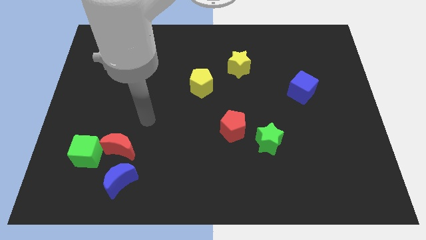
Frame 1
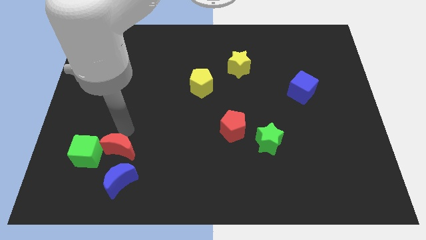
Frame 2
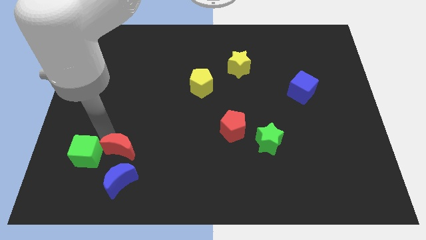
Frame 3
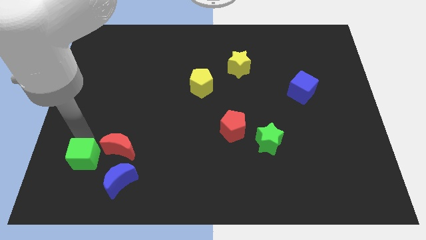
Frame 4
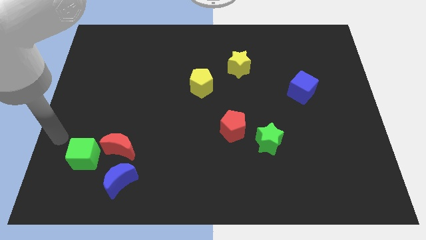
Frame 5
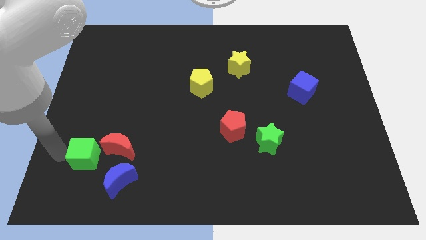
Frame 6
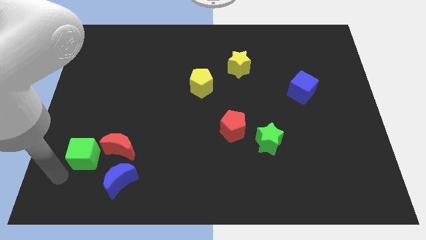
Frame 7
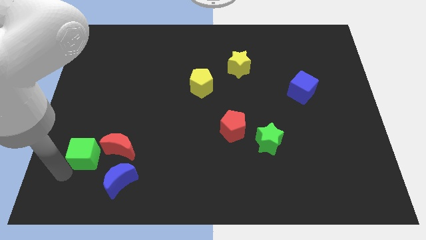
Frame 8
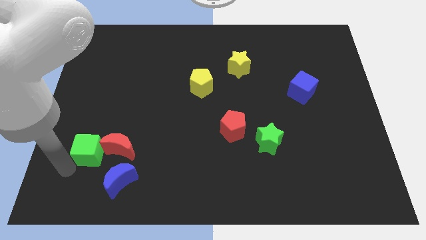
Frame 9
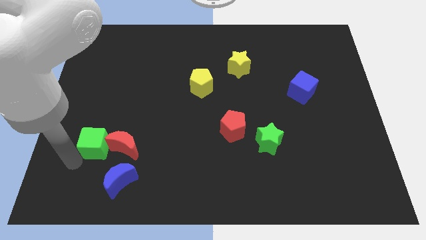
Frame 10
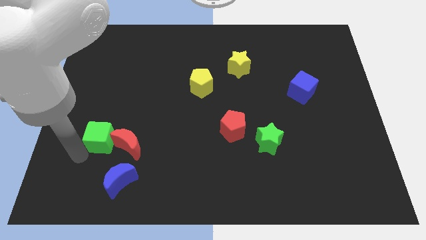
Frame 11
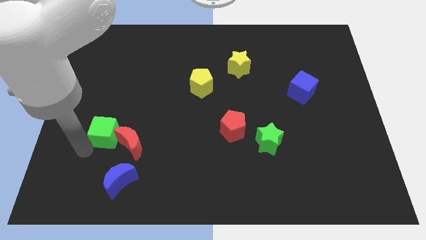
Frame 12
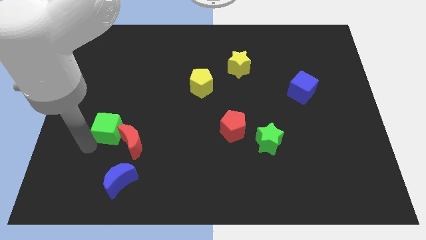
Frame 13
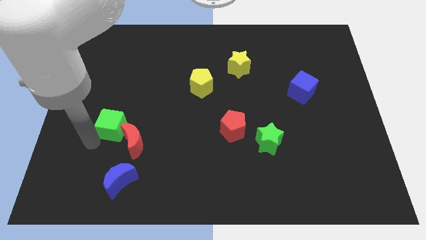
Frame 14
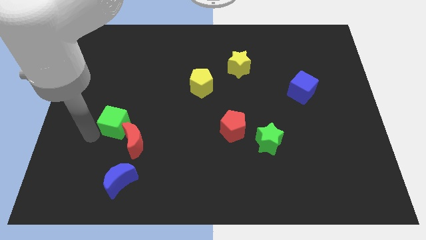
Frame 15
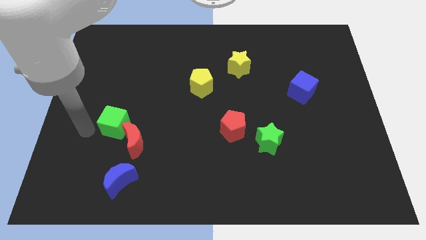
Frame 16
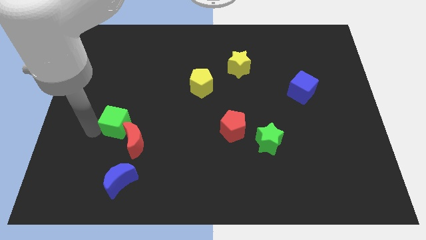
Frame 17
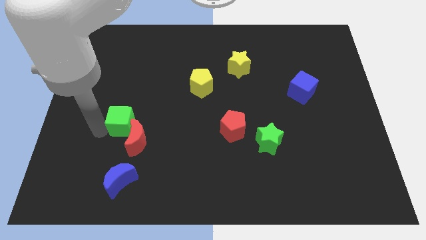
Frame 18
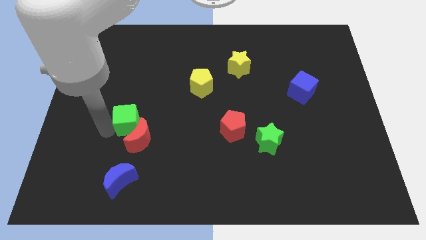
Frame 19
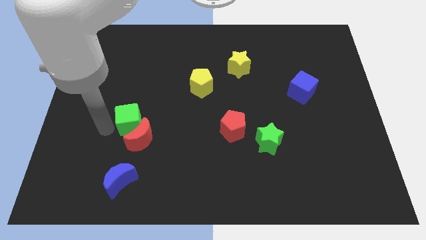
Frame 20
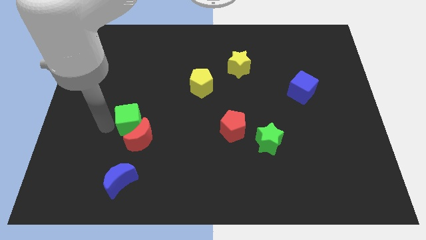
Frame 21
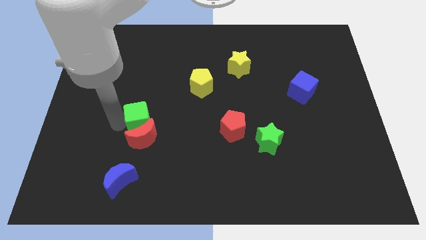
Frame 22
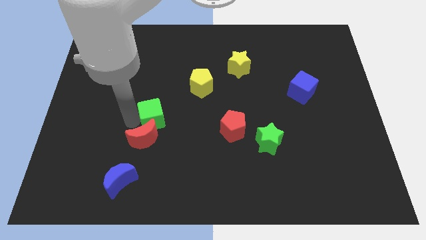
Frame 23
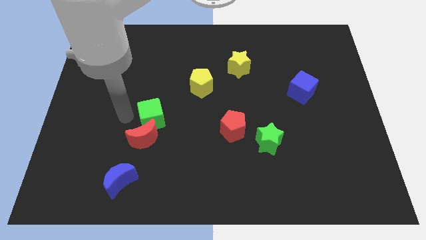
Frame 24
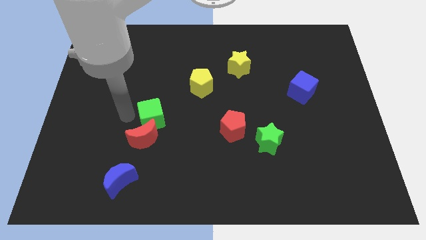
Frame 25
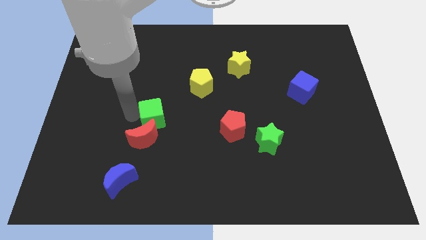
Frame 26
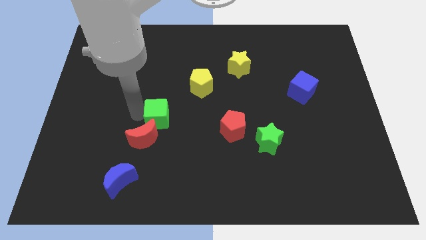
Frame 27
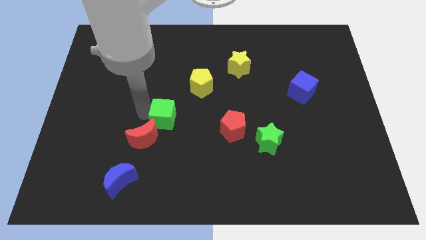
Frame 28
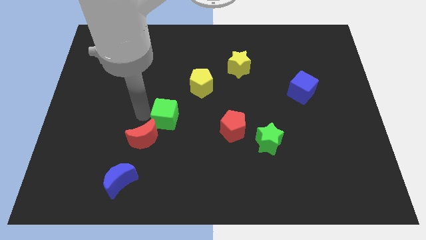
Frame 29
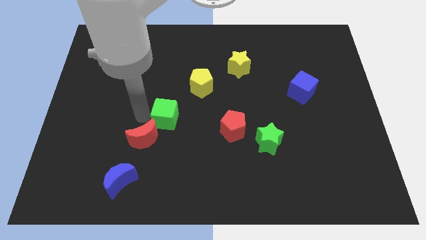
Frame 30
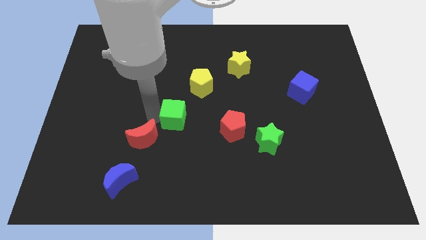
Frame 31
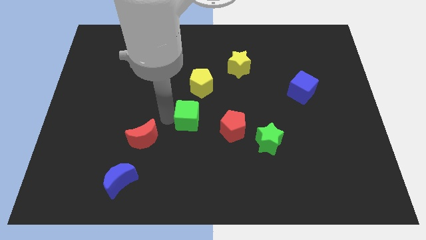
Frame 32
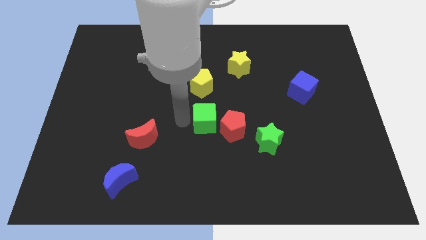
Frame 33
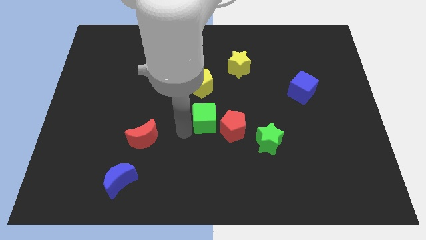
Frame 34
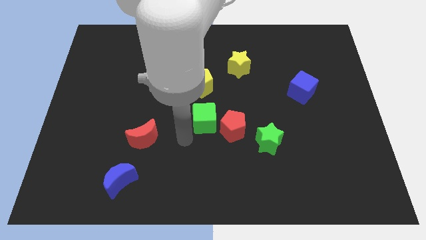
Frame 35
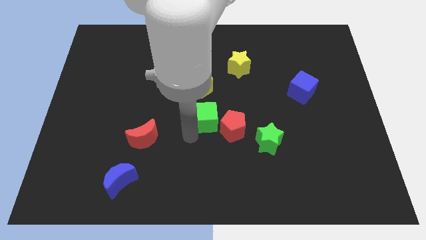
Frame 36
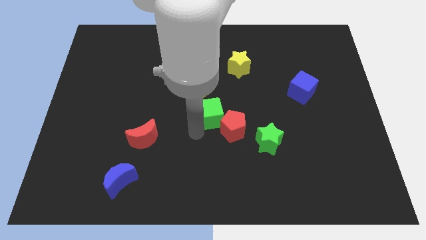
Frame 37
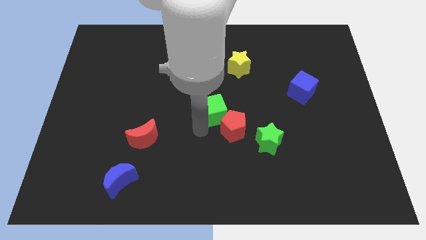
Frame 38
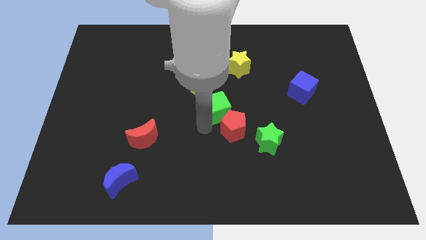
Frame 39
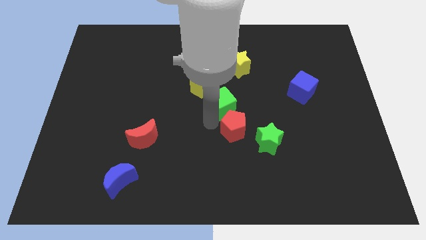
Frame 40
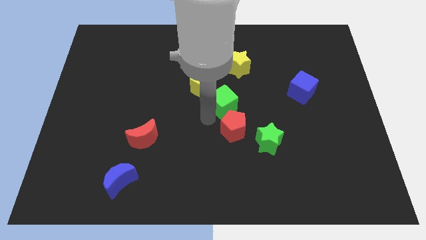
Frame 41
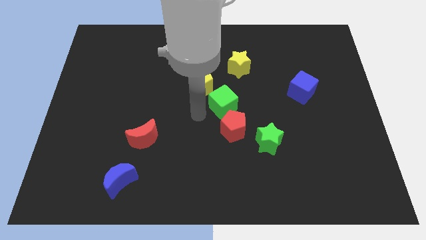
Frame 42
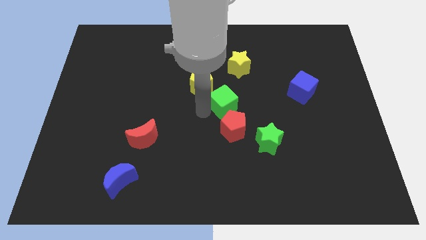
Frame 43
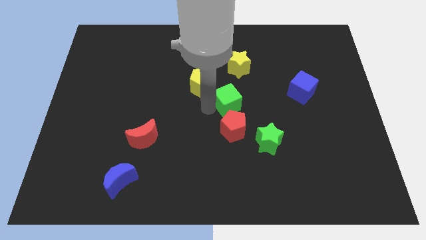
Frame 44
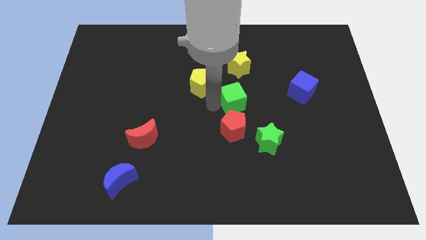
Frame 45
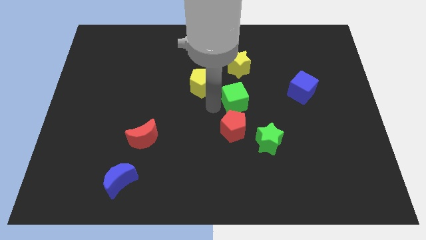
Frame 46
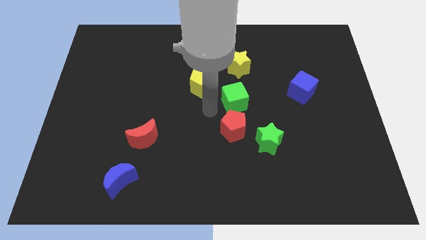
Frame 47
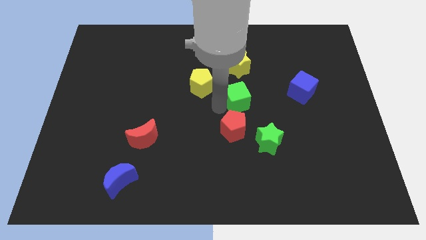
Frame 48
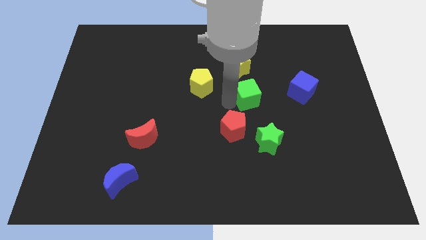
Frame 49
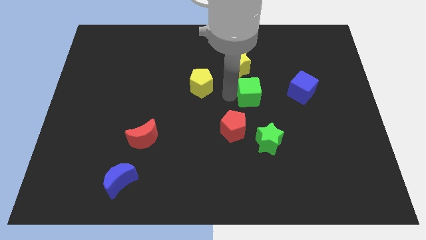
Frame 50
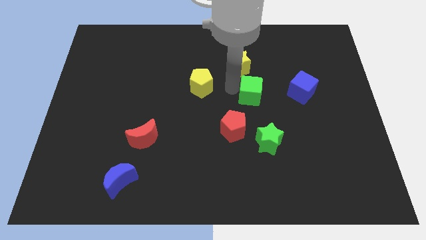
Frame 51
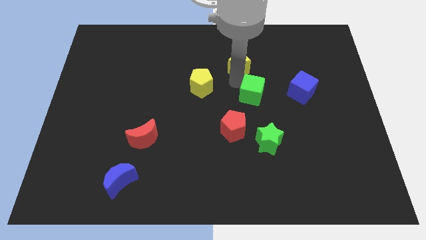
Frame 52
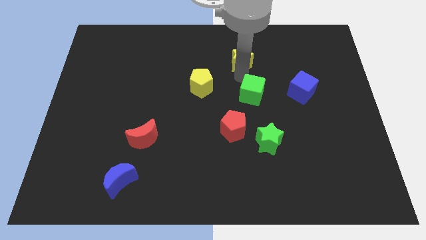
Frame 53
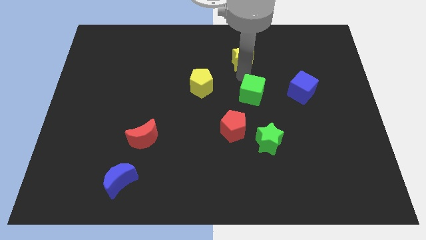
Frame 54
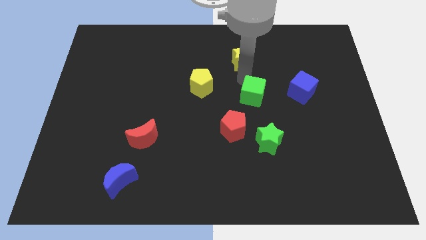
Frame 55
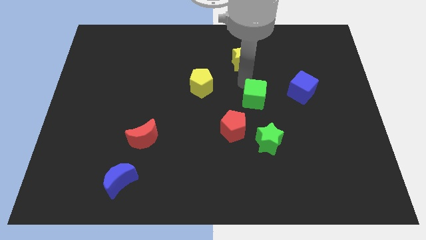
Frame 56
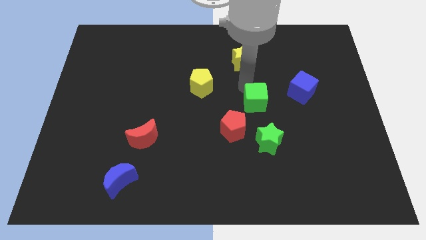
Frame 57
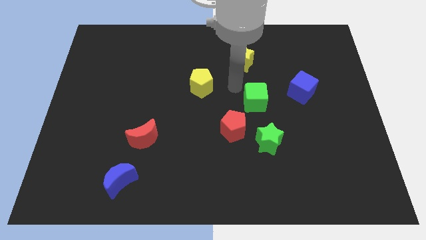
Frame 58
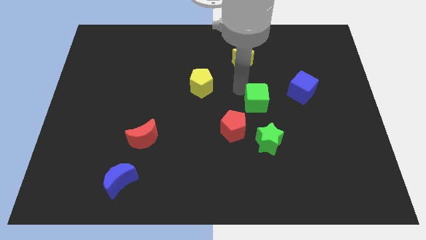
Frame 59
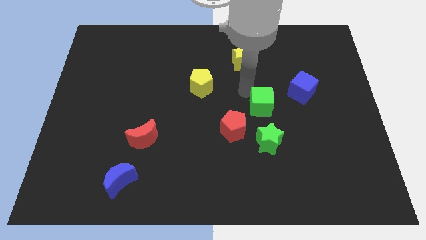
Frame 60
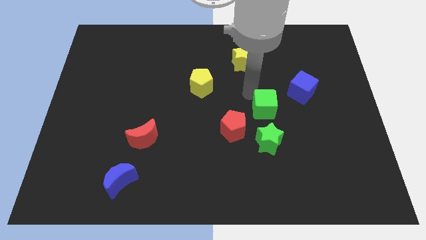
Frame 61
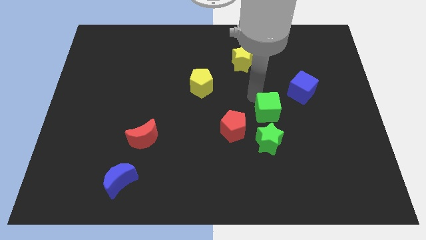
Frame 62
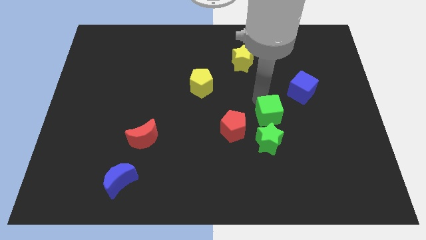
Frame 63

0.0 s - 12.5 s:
push the green cube diagonally up and to the right of the green star

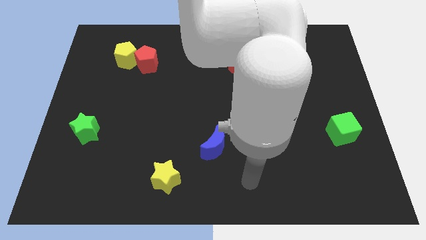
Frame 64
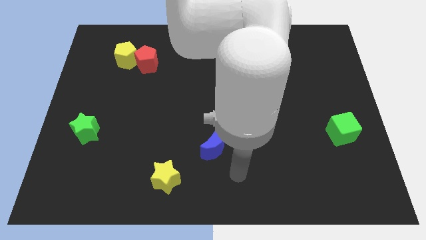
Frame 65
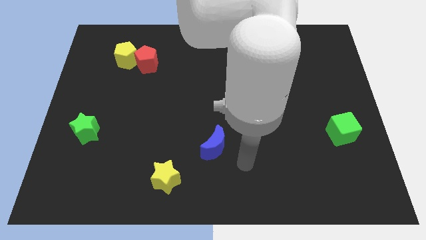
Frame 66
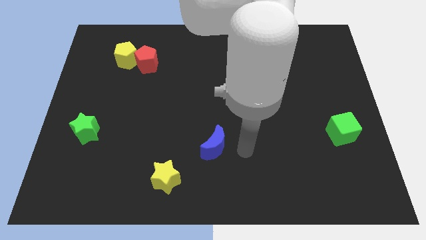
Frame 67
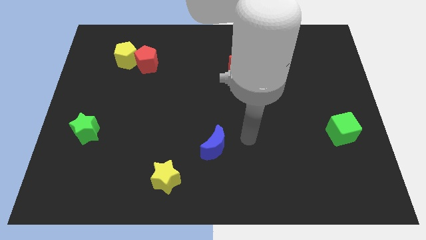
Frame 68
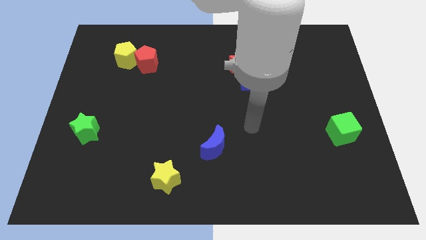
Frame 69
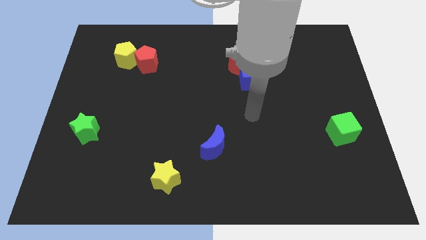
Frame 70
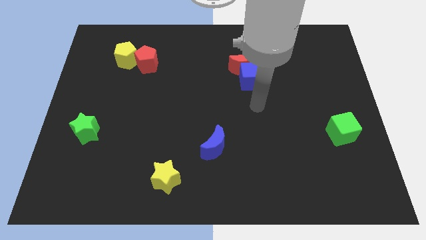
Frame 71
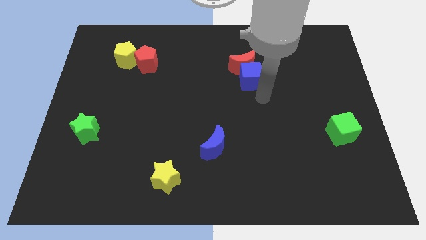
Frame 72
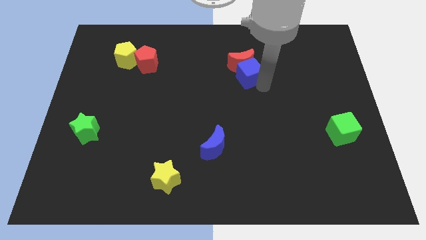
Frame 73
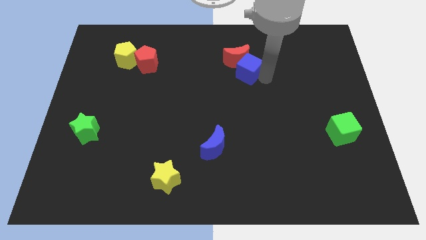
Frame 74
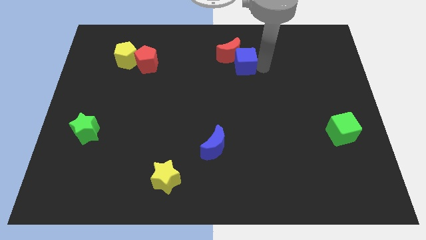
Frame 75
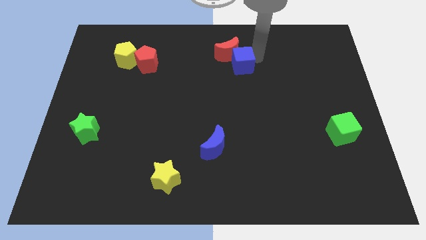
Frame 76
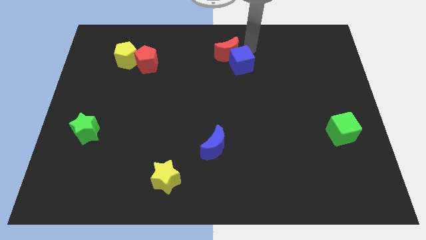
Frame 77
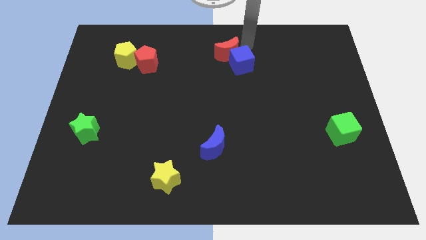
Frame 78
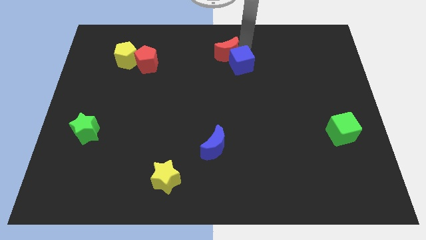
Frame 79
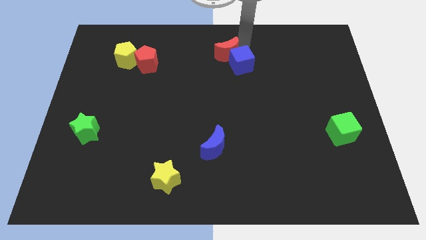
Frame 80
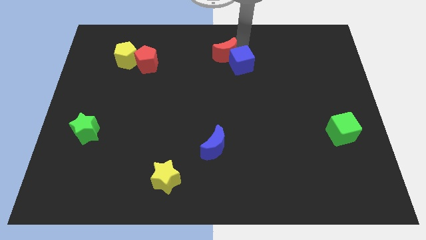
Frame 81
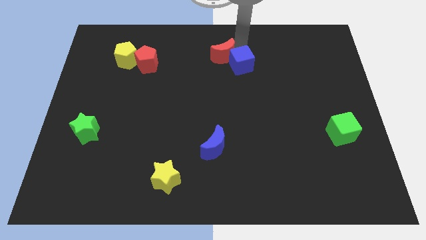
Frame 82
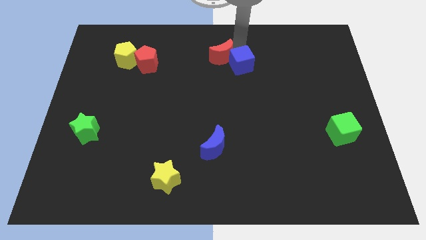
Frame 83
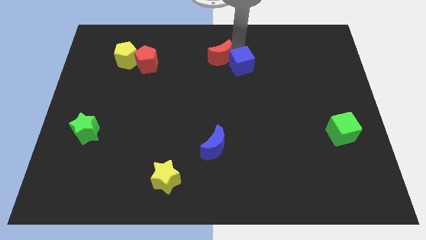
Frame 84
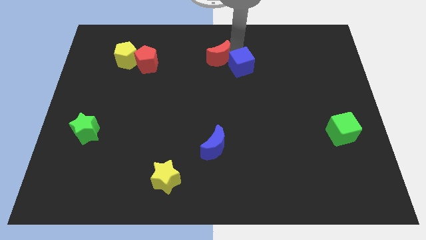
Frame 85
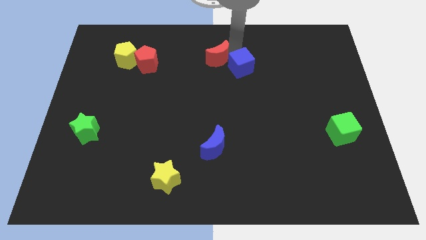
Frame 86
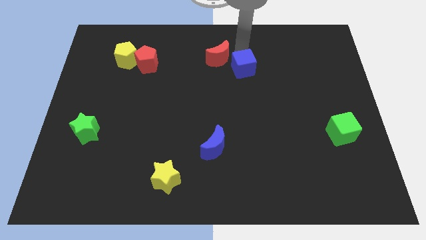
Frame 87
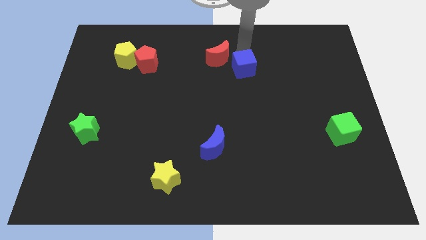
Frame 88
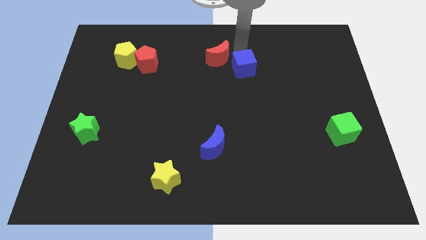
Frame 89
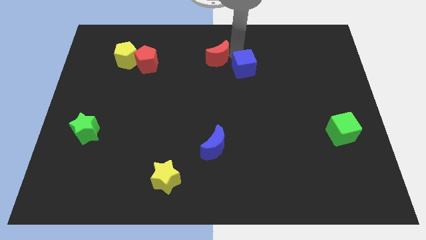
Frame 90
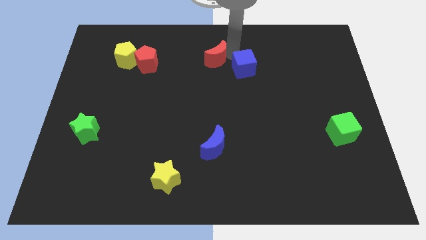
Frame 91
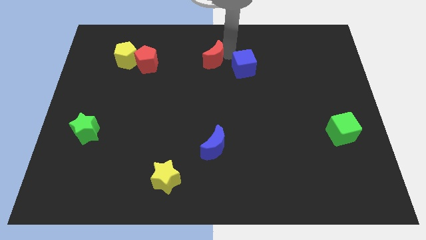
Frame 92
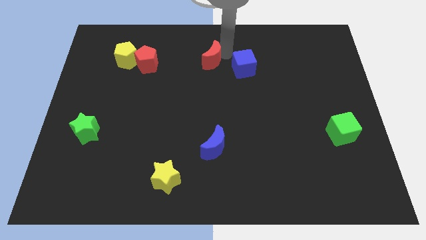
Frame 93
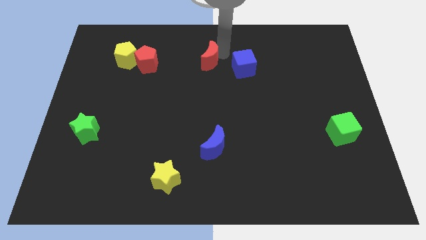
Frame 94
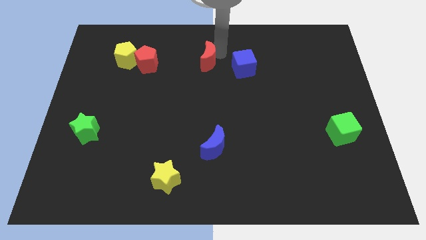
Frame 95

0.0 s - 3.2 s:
push the red moon just right of the red pentagon
